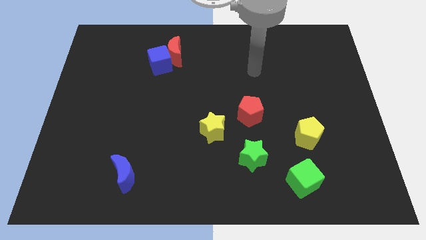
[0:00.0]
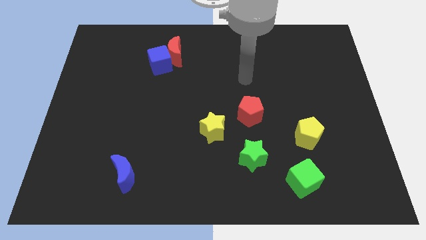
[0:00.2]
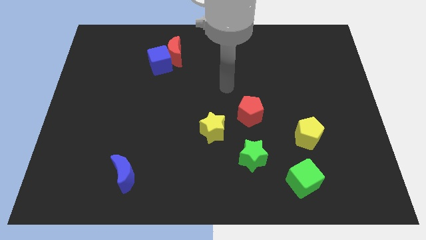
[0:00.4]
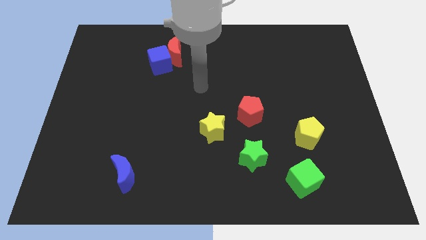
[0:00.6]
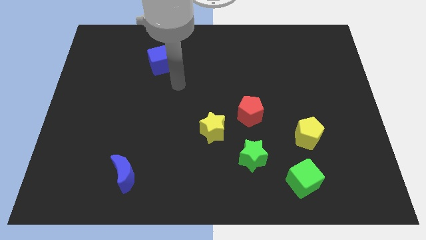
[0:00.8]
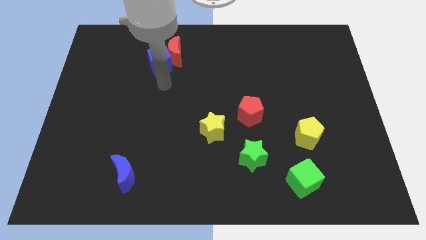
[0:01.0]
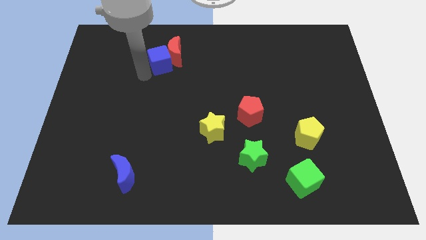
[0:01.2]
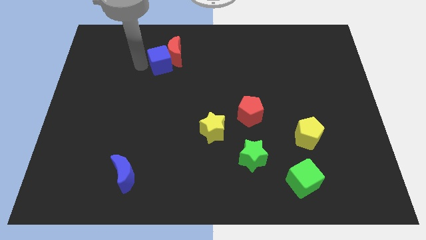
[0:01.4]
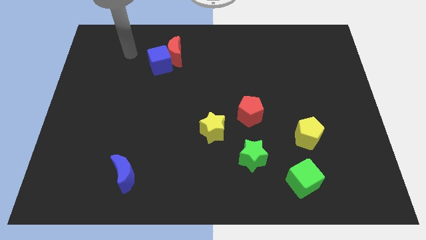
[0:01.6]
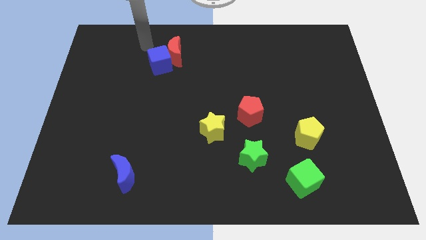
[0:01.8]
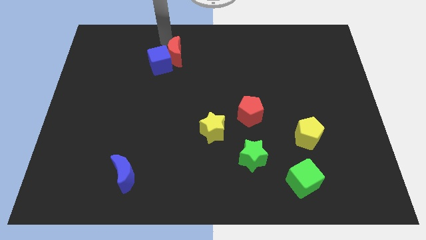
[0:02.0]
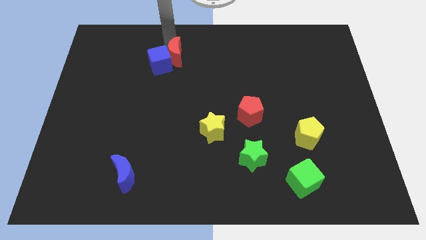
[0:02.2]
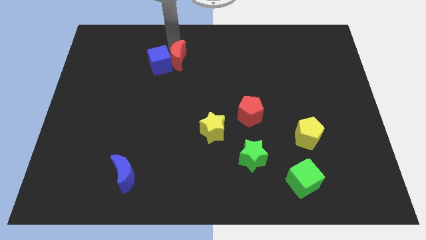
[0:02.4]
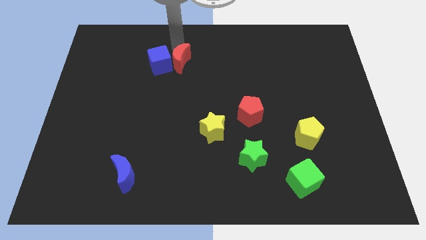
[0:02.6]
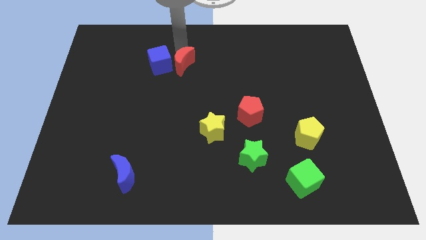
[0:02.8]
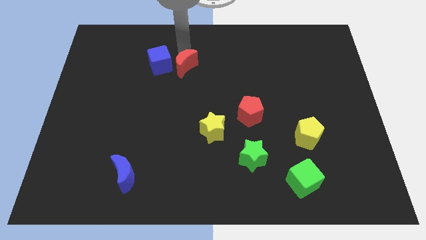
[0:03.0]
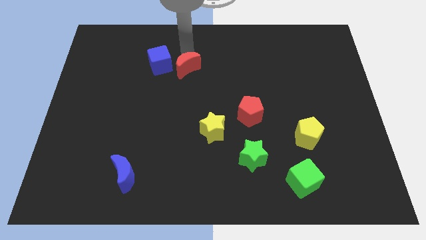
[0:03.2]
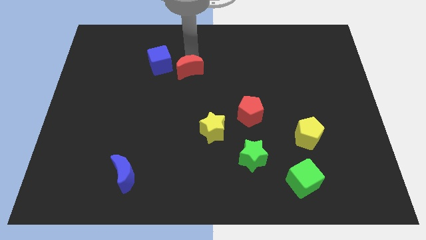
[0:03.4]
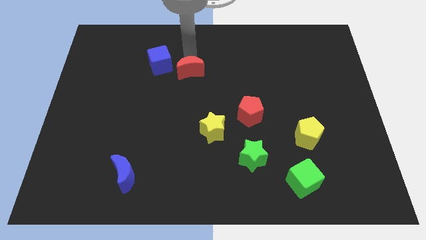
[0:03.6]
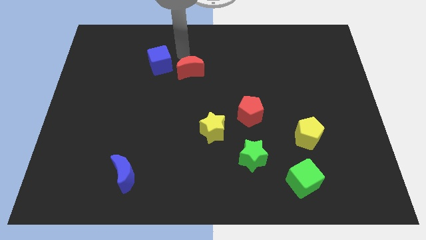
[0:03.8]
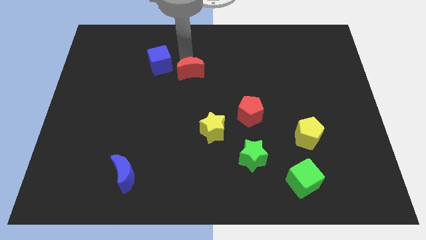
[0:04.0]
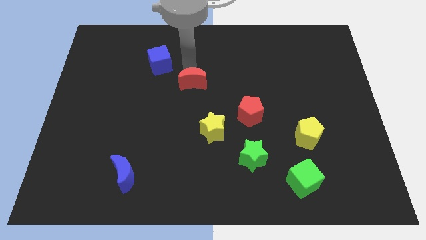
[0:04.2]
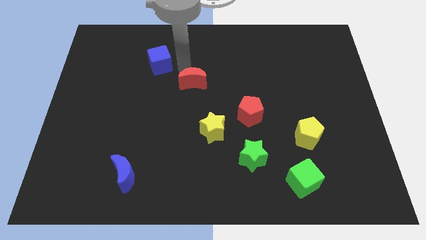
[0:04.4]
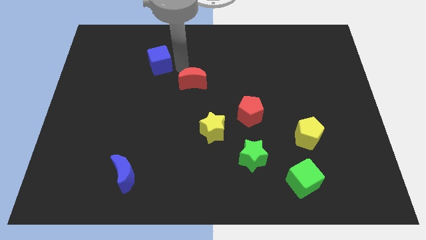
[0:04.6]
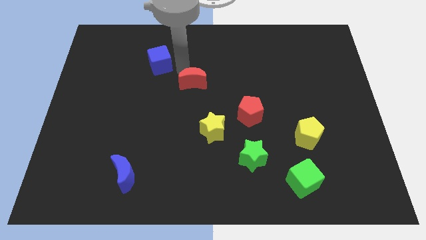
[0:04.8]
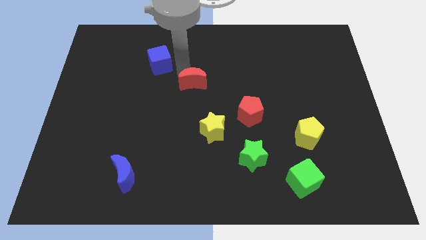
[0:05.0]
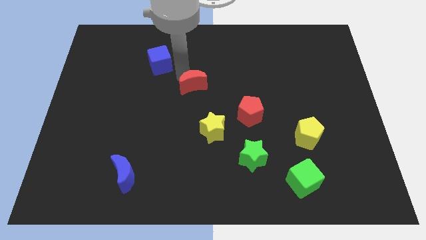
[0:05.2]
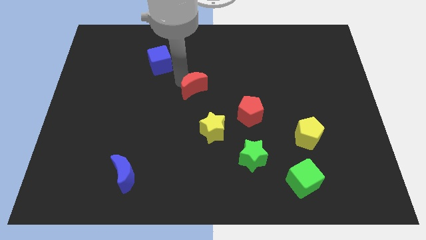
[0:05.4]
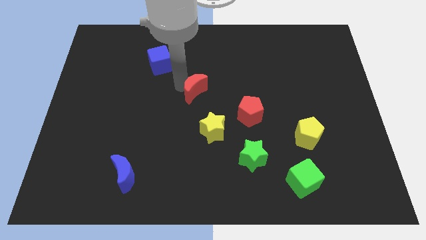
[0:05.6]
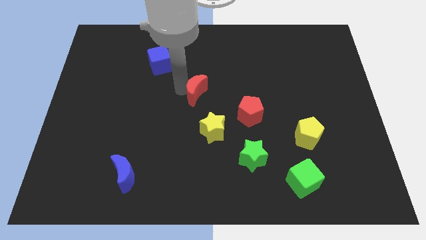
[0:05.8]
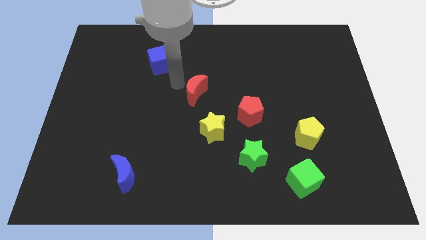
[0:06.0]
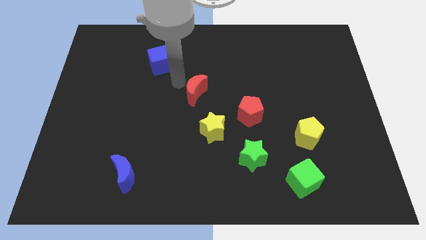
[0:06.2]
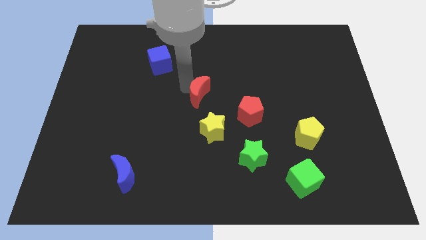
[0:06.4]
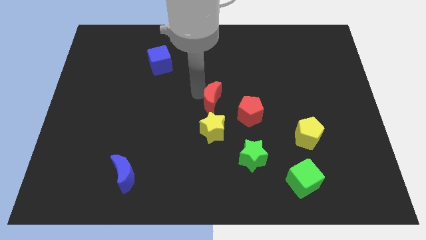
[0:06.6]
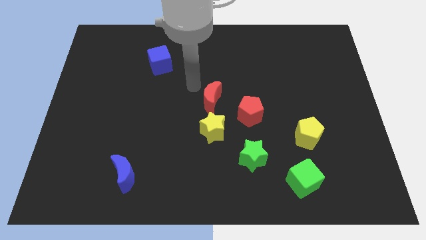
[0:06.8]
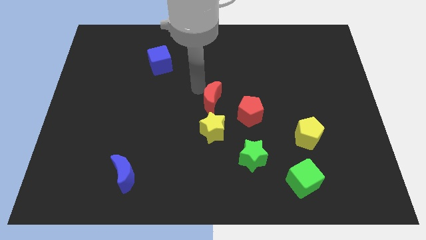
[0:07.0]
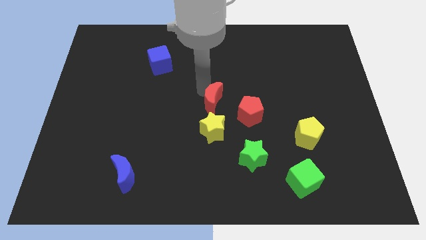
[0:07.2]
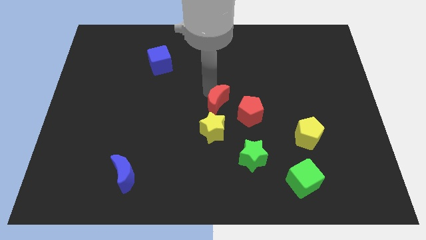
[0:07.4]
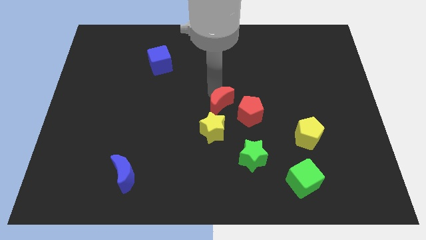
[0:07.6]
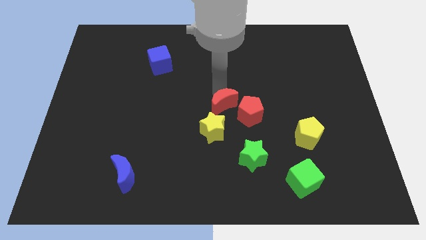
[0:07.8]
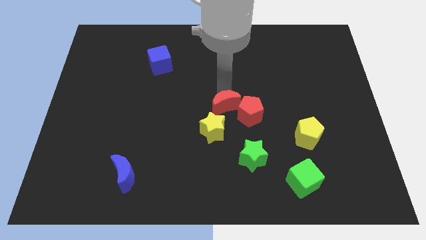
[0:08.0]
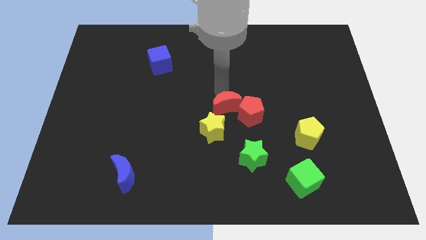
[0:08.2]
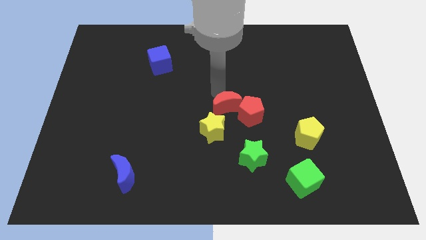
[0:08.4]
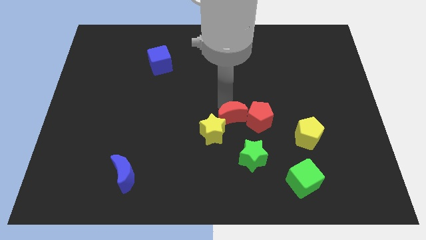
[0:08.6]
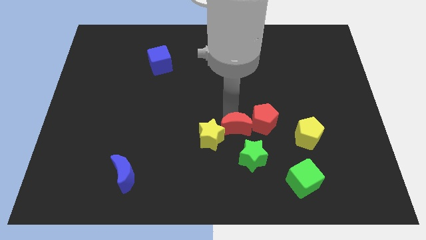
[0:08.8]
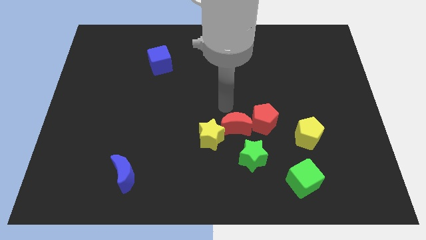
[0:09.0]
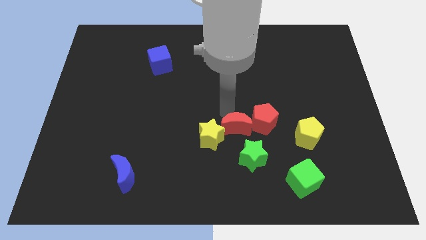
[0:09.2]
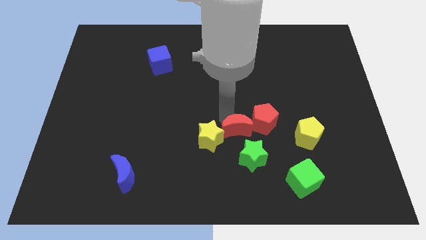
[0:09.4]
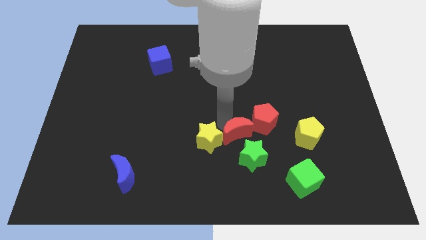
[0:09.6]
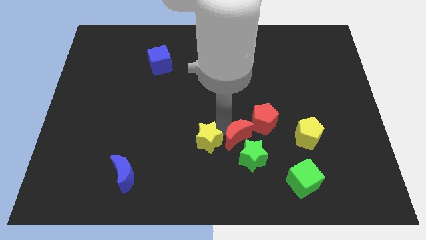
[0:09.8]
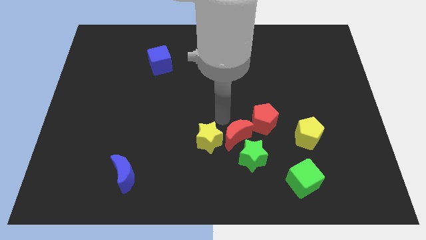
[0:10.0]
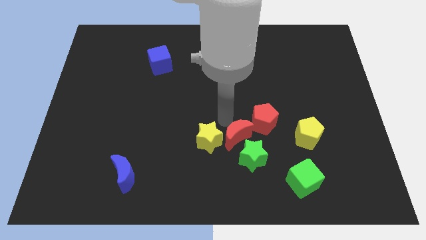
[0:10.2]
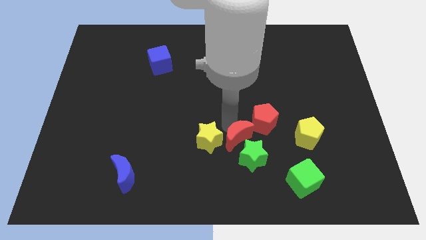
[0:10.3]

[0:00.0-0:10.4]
push the red moon towards the green star

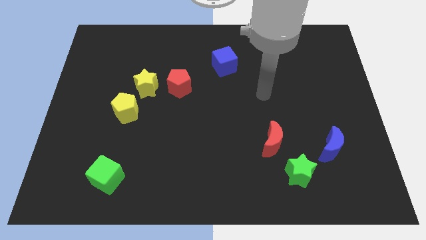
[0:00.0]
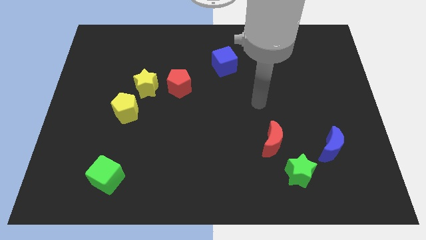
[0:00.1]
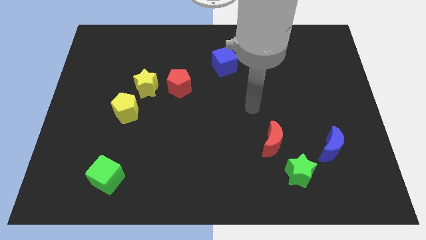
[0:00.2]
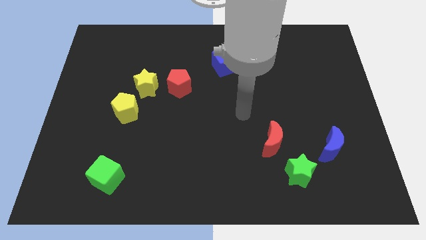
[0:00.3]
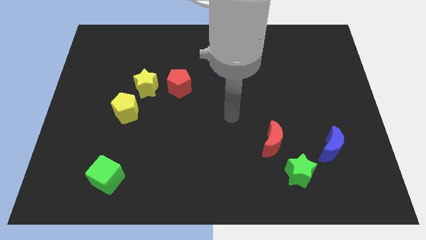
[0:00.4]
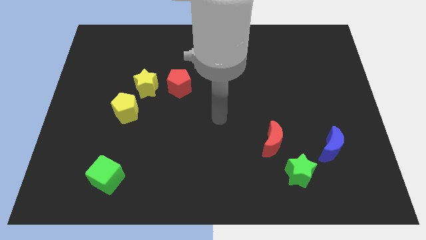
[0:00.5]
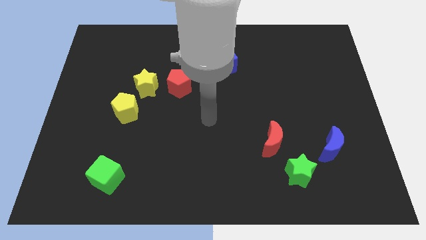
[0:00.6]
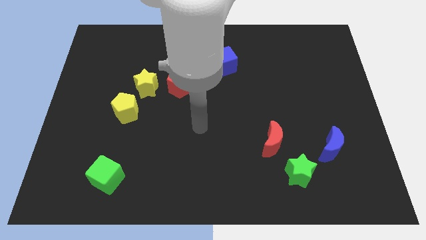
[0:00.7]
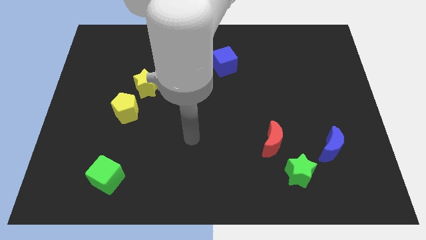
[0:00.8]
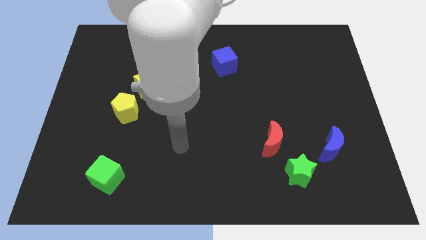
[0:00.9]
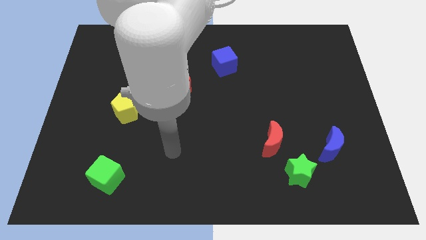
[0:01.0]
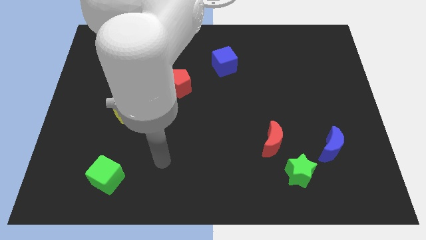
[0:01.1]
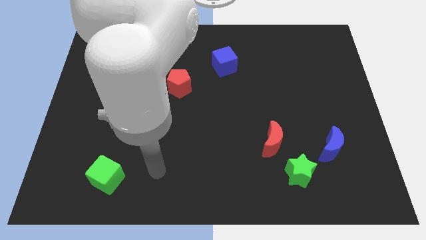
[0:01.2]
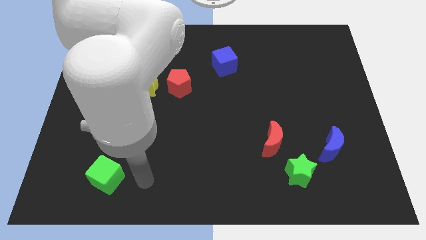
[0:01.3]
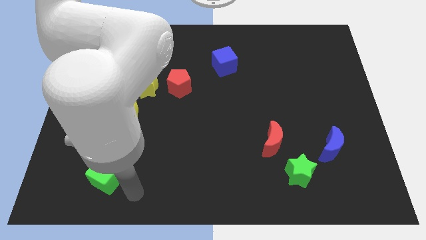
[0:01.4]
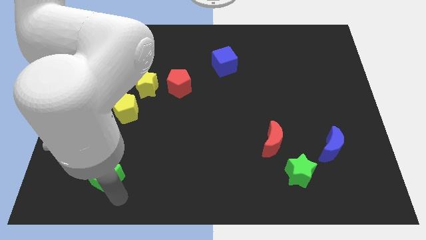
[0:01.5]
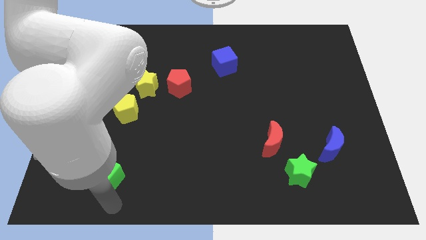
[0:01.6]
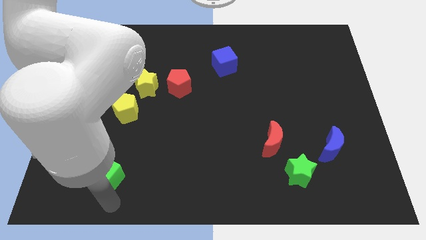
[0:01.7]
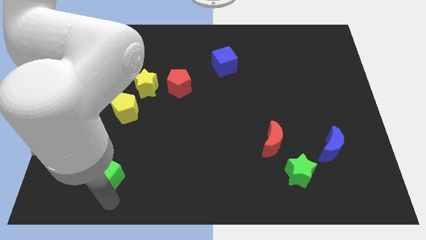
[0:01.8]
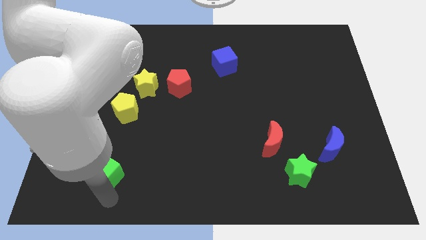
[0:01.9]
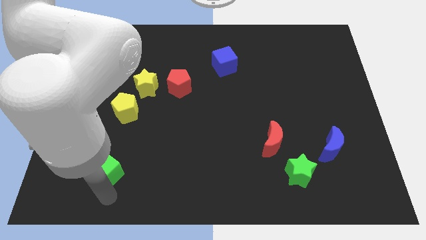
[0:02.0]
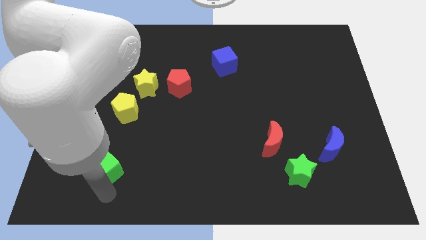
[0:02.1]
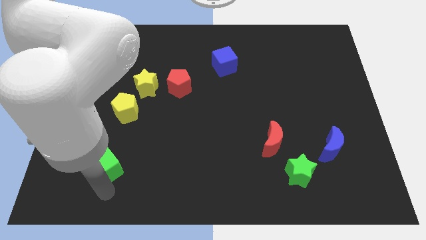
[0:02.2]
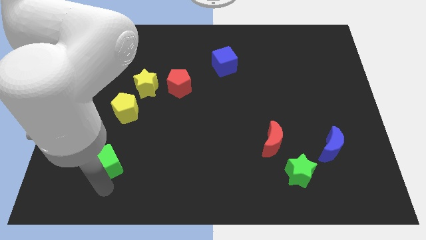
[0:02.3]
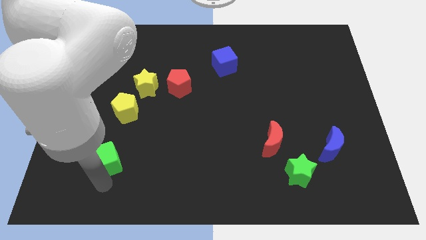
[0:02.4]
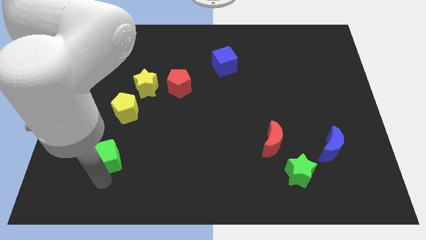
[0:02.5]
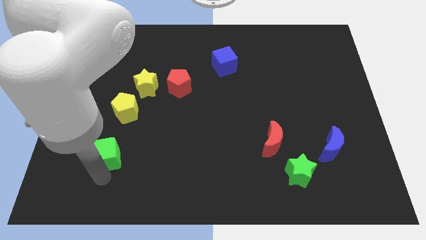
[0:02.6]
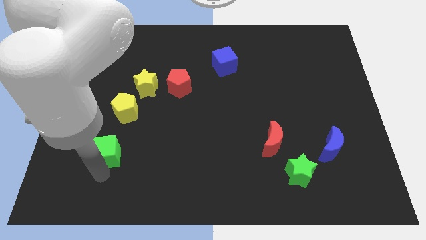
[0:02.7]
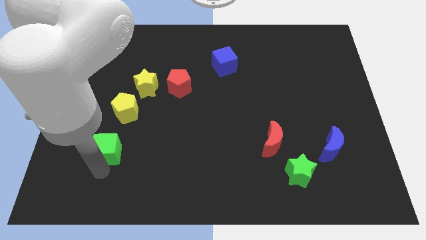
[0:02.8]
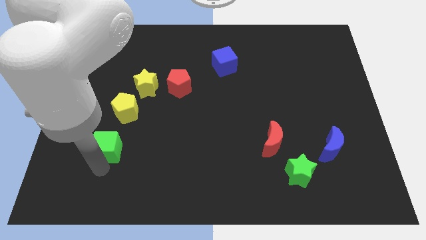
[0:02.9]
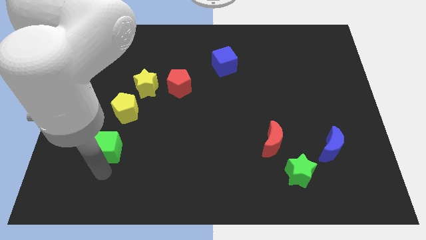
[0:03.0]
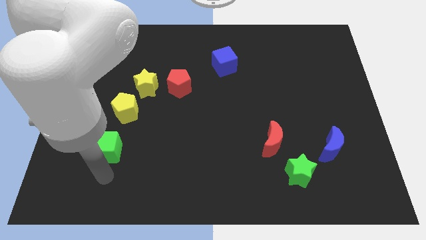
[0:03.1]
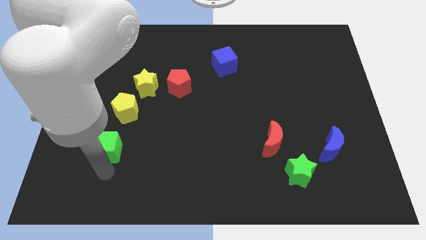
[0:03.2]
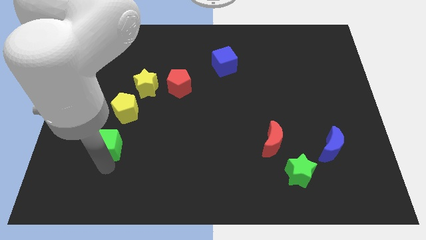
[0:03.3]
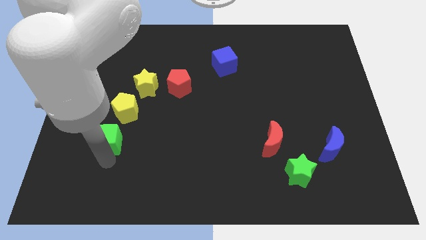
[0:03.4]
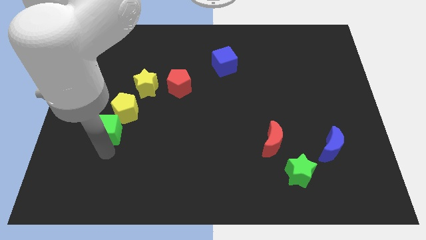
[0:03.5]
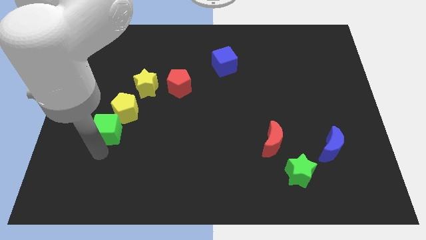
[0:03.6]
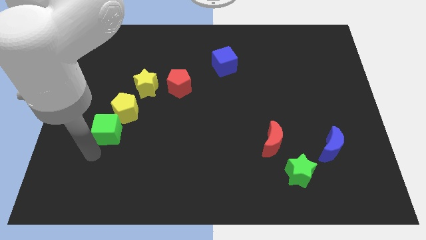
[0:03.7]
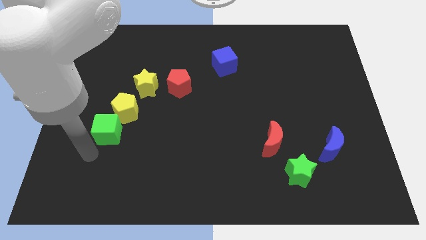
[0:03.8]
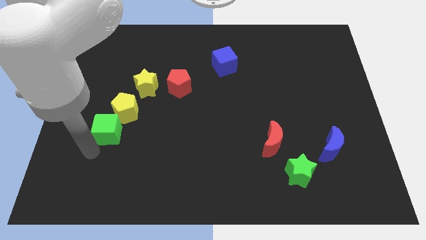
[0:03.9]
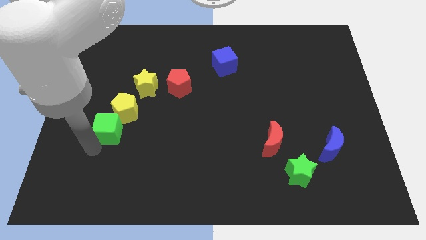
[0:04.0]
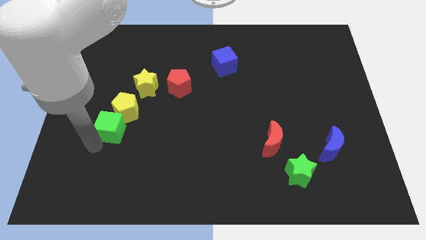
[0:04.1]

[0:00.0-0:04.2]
put the green cube close to the yellow pentagon
